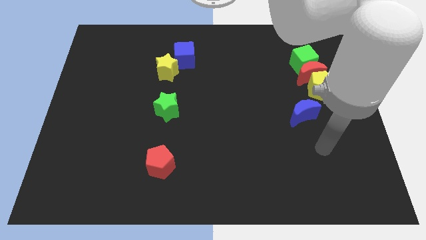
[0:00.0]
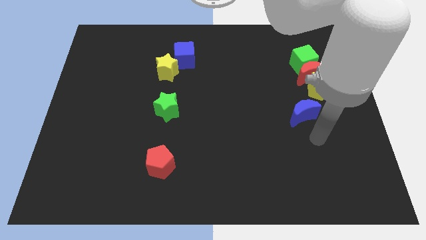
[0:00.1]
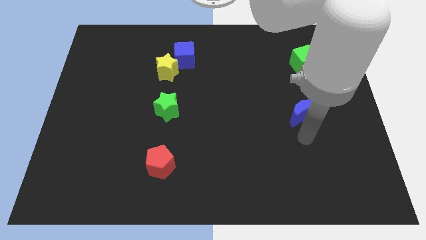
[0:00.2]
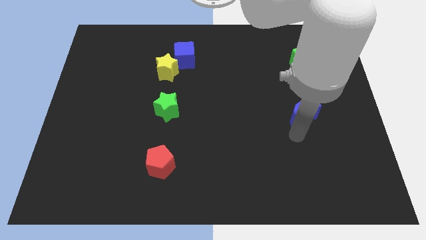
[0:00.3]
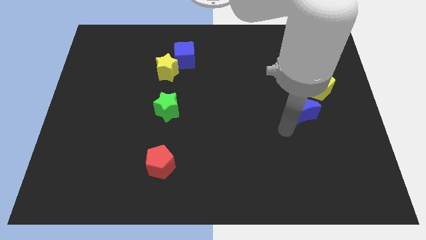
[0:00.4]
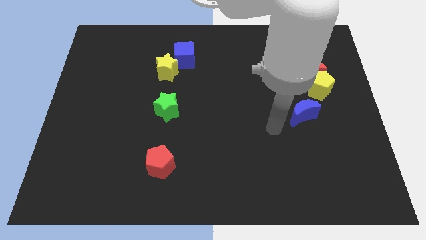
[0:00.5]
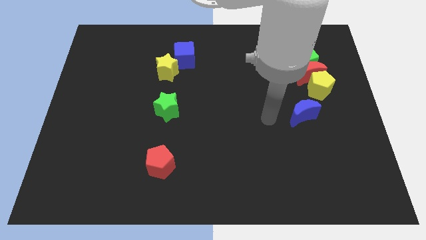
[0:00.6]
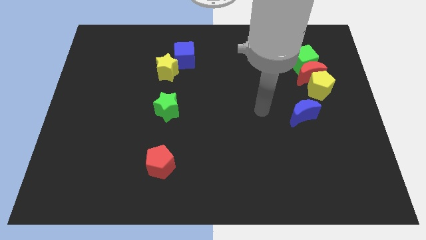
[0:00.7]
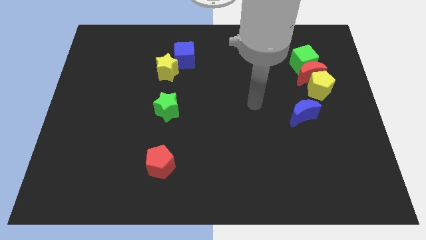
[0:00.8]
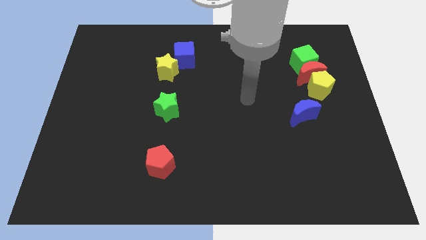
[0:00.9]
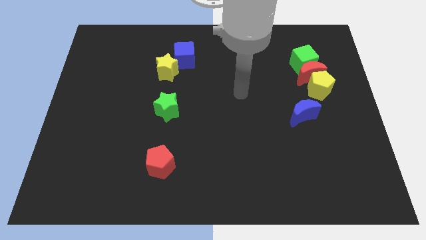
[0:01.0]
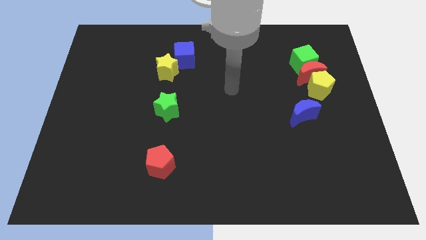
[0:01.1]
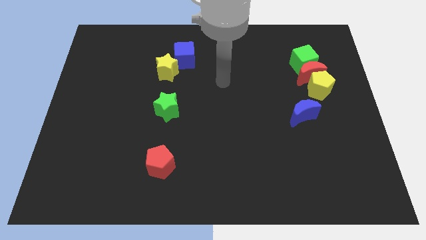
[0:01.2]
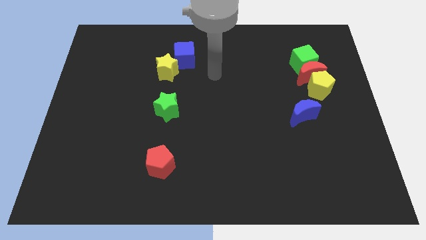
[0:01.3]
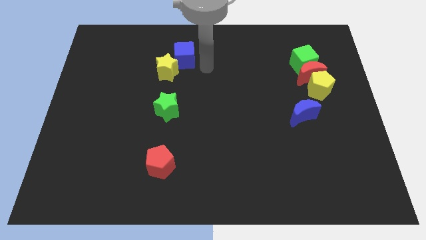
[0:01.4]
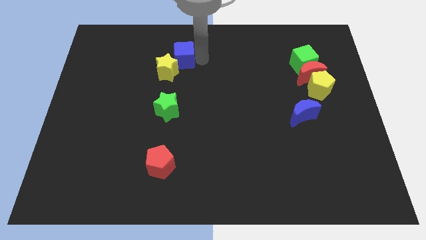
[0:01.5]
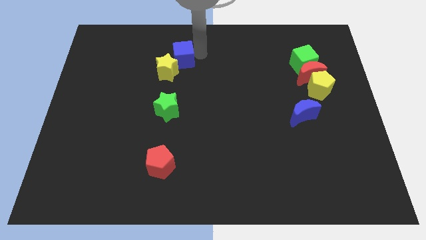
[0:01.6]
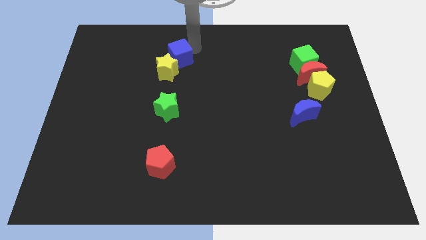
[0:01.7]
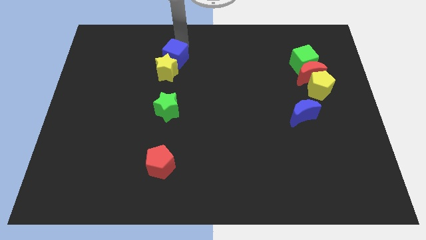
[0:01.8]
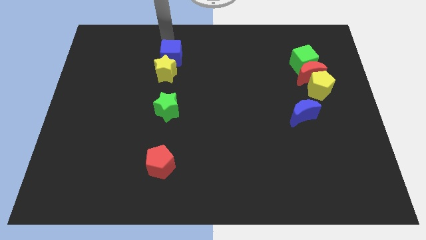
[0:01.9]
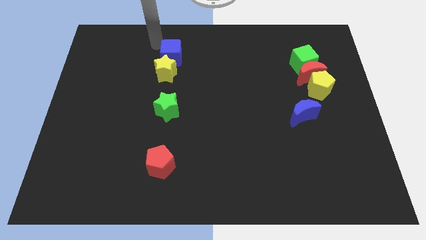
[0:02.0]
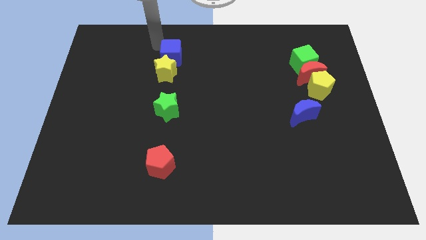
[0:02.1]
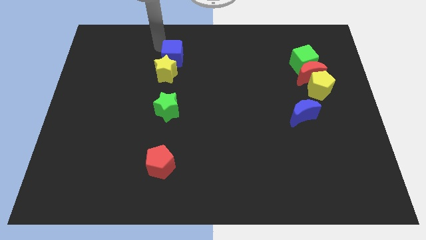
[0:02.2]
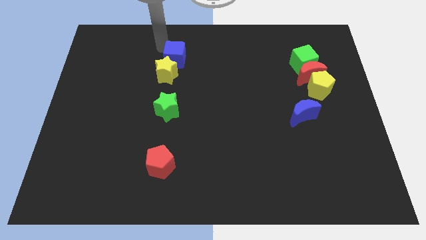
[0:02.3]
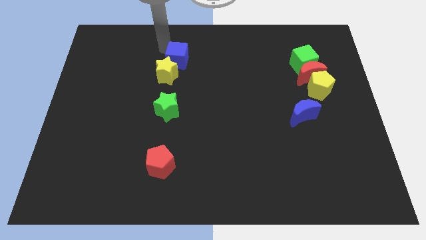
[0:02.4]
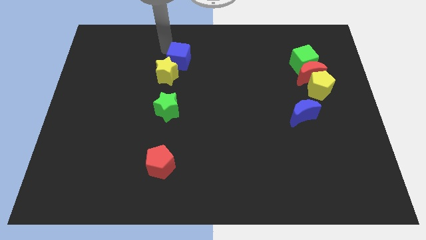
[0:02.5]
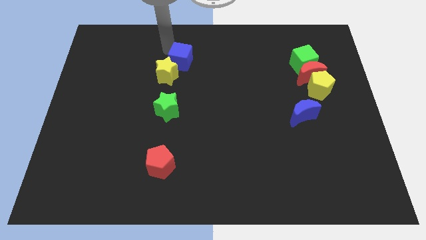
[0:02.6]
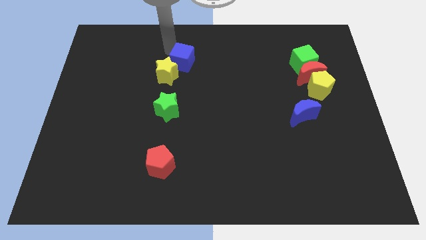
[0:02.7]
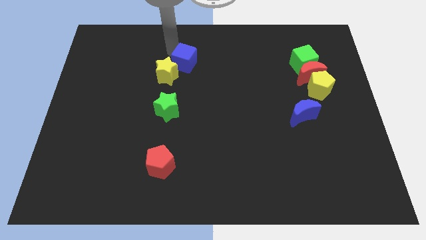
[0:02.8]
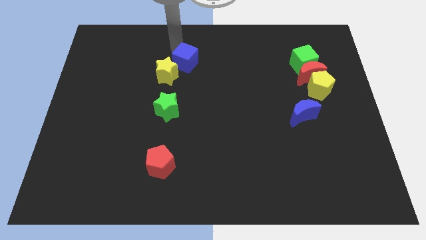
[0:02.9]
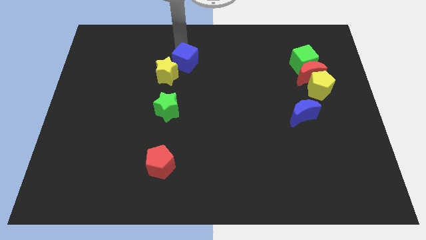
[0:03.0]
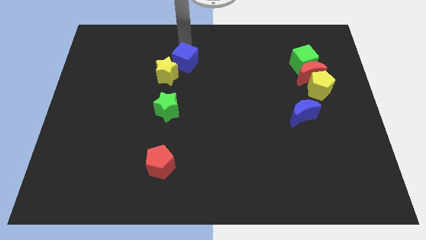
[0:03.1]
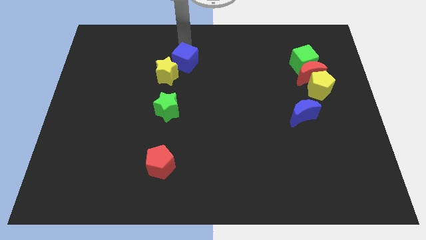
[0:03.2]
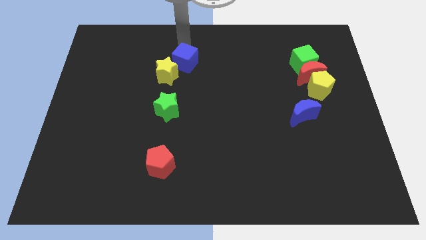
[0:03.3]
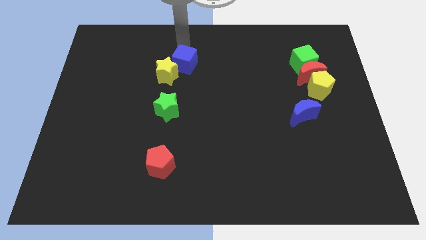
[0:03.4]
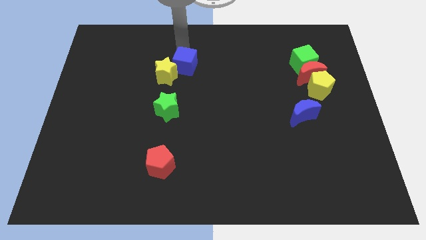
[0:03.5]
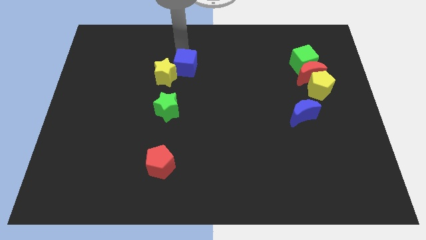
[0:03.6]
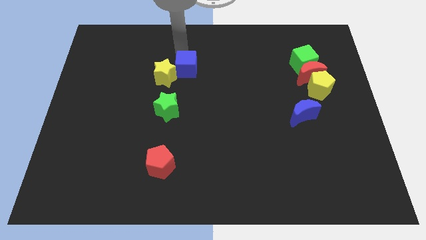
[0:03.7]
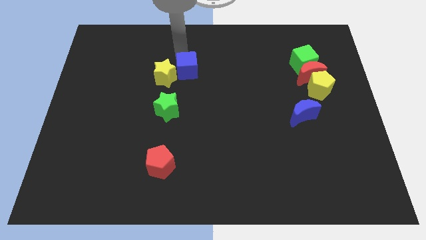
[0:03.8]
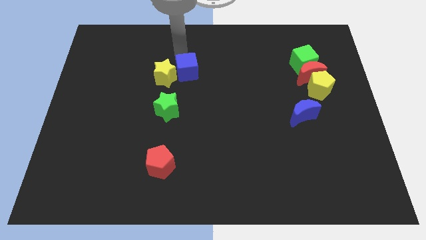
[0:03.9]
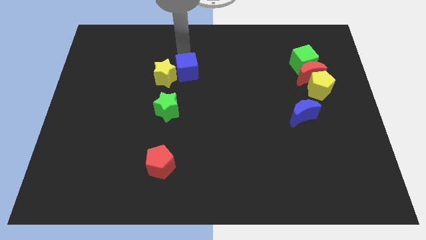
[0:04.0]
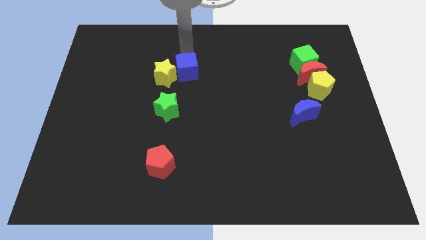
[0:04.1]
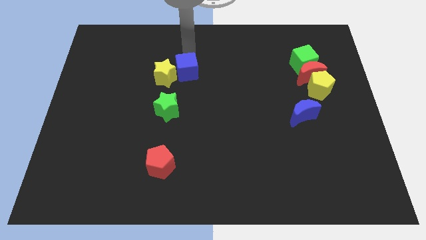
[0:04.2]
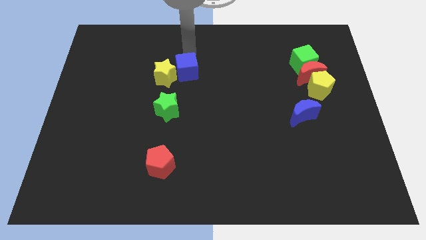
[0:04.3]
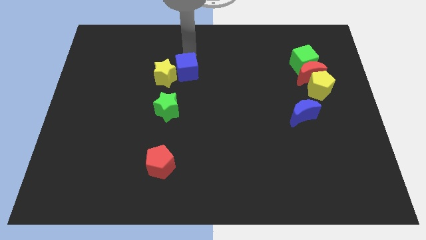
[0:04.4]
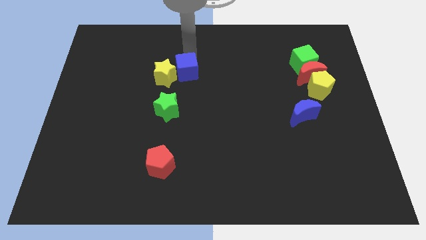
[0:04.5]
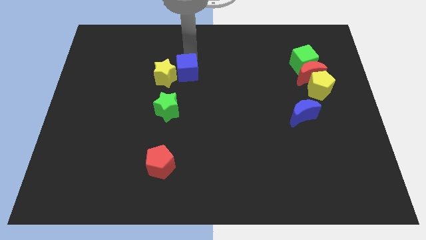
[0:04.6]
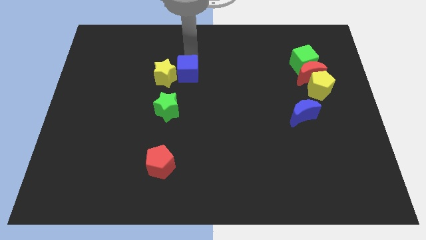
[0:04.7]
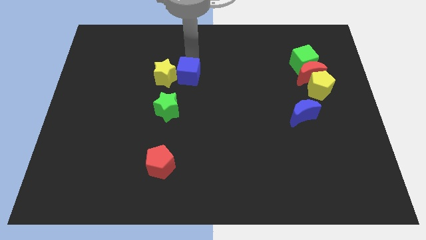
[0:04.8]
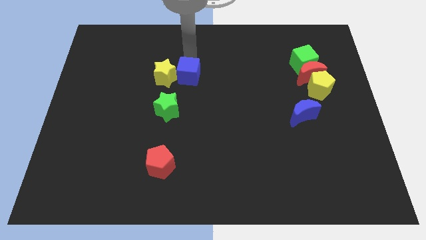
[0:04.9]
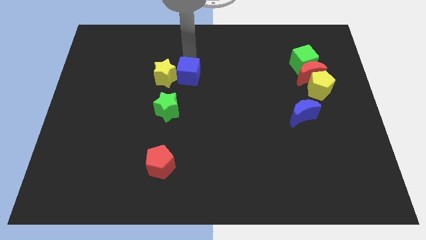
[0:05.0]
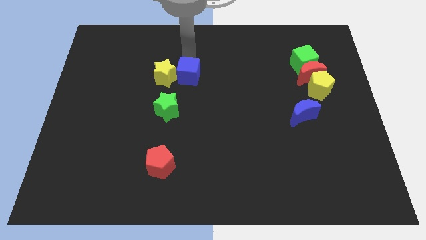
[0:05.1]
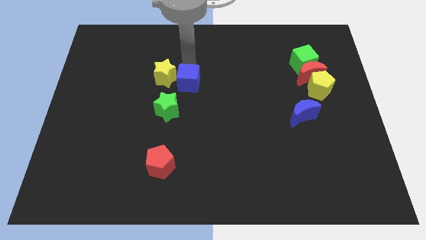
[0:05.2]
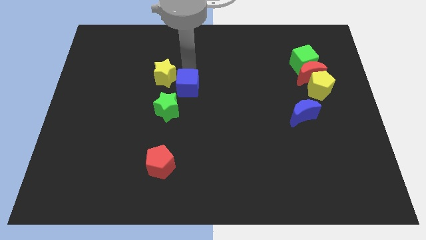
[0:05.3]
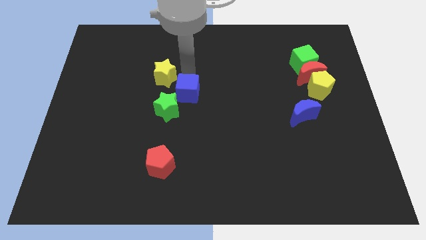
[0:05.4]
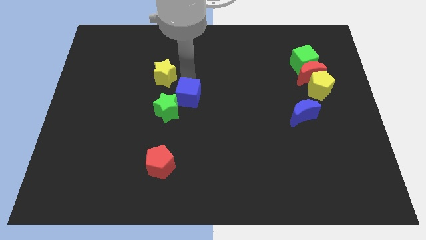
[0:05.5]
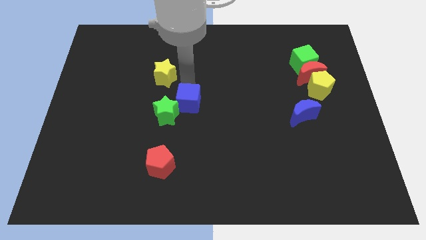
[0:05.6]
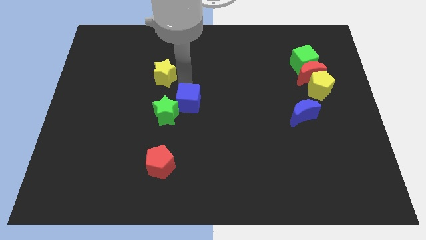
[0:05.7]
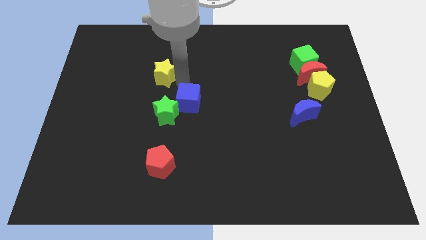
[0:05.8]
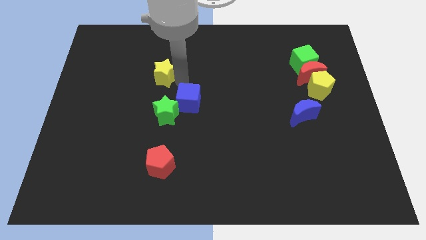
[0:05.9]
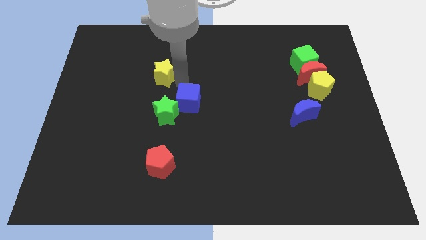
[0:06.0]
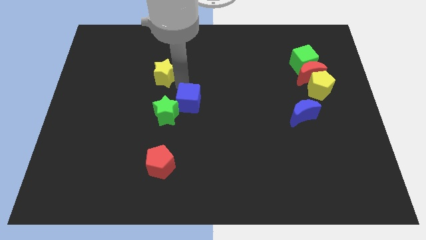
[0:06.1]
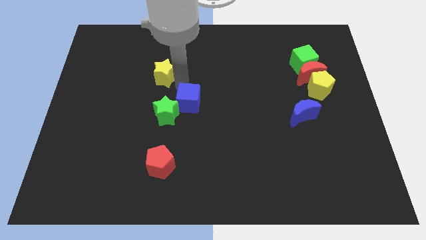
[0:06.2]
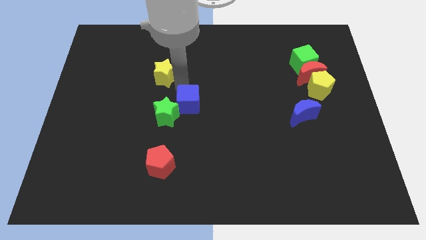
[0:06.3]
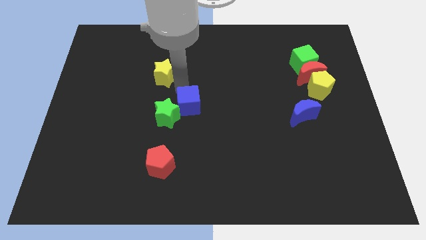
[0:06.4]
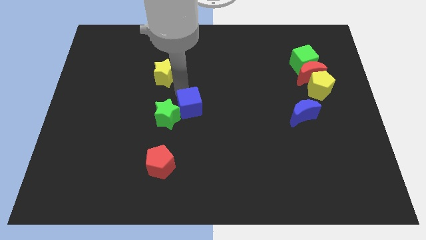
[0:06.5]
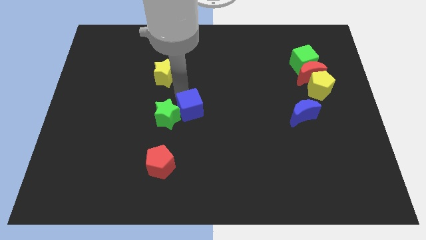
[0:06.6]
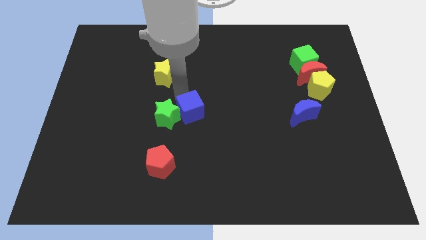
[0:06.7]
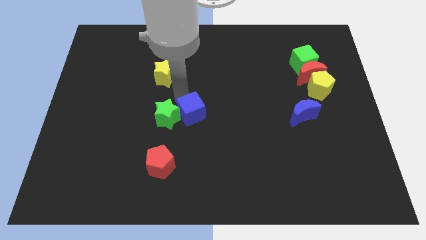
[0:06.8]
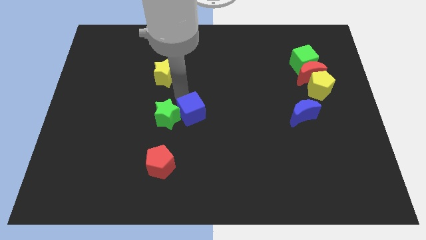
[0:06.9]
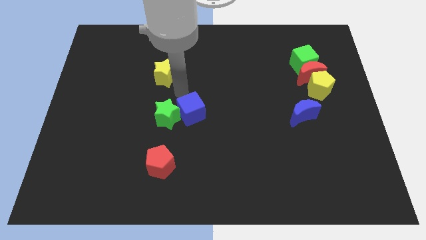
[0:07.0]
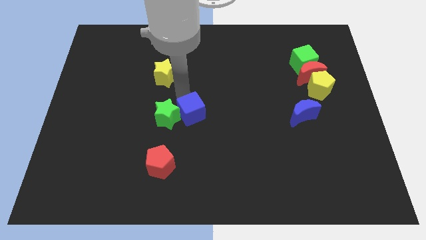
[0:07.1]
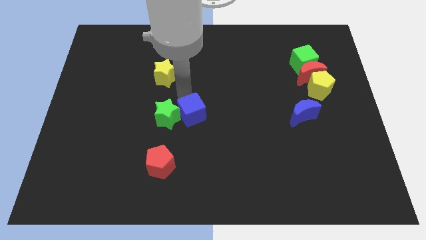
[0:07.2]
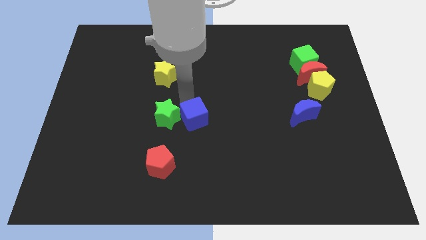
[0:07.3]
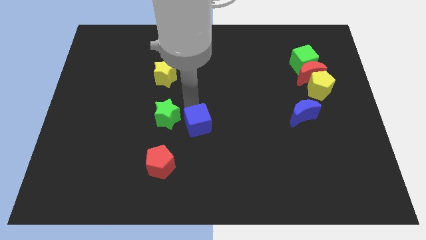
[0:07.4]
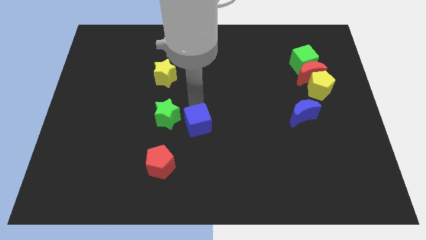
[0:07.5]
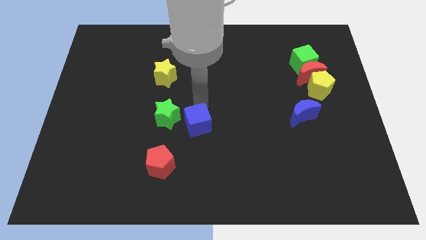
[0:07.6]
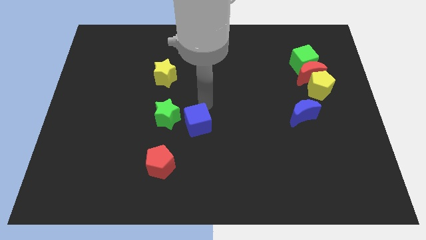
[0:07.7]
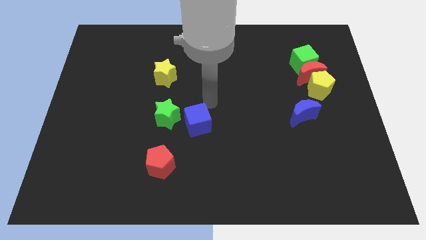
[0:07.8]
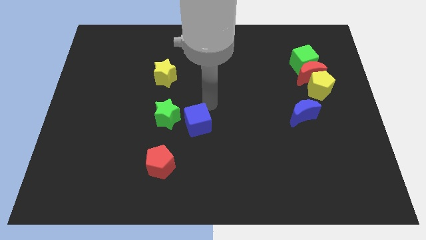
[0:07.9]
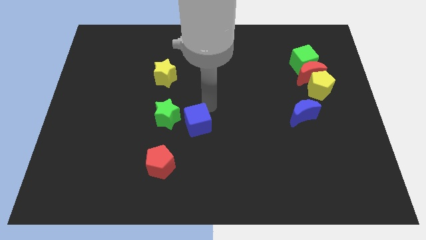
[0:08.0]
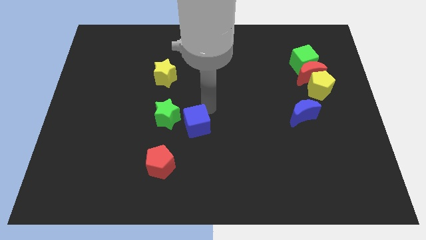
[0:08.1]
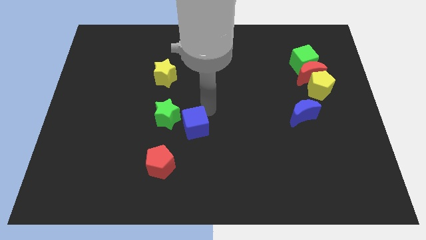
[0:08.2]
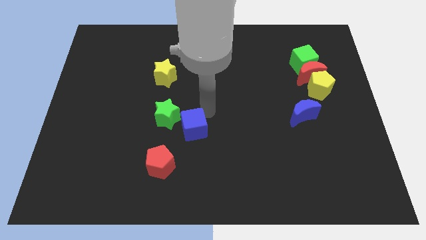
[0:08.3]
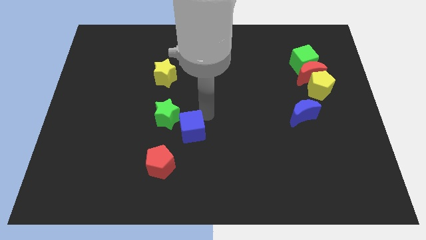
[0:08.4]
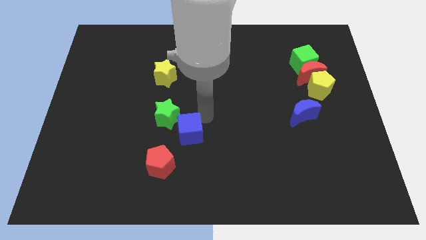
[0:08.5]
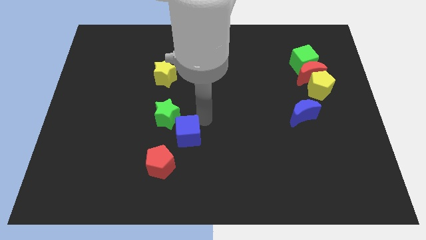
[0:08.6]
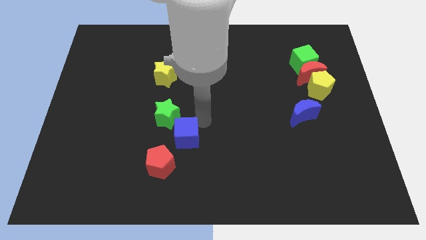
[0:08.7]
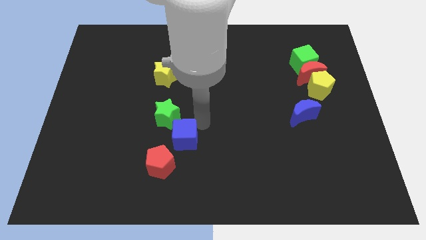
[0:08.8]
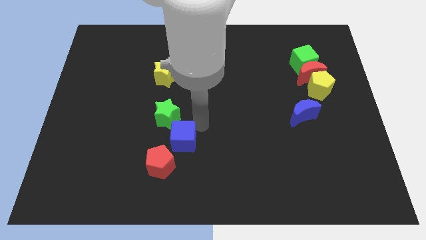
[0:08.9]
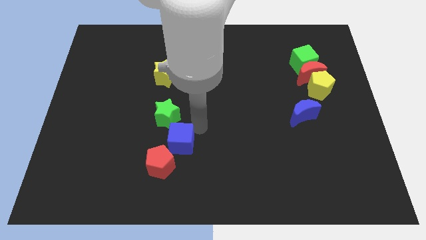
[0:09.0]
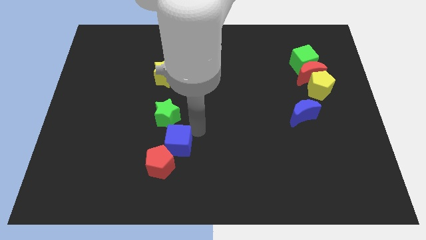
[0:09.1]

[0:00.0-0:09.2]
move the blue cube close to the red pentagon
